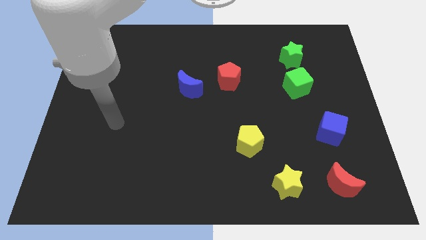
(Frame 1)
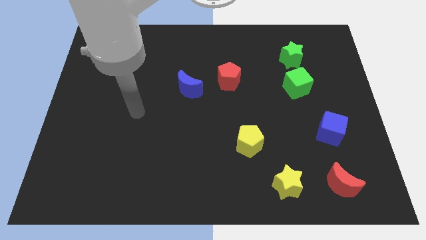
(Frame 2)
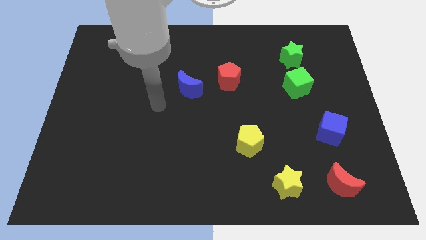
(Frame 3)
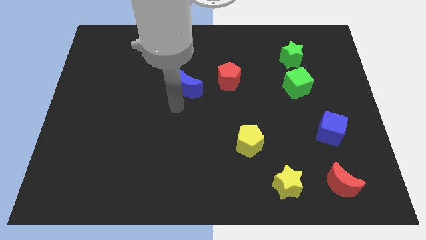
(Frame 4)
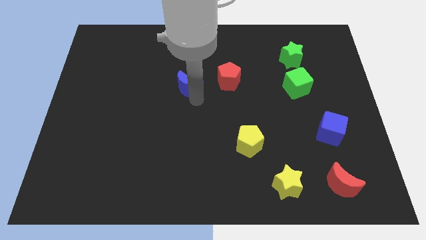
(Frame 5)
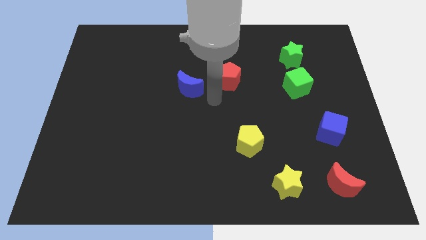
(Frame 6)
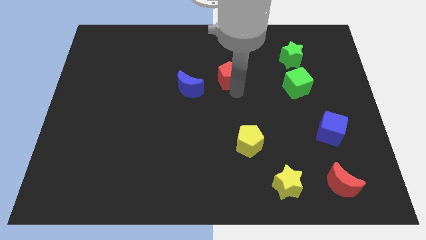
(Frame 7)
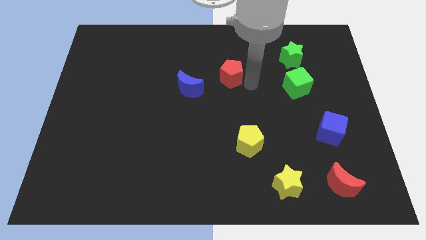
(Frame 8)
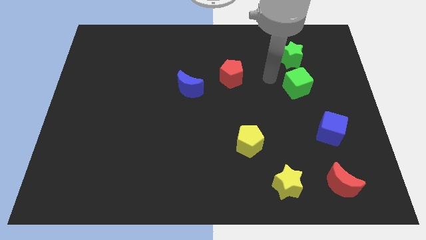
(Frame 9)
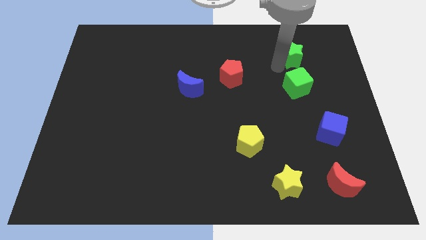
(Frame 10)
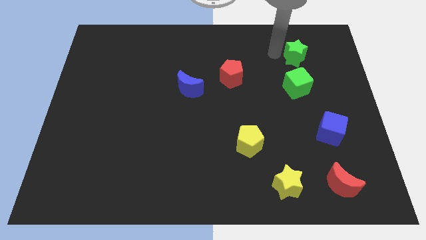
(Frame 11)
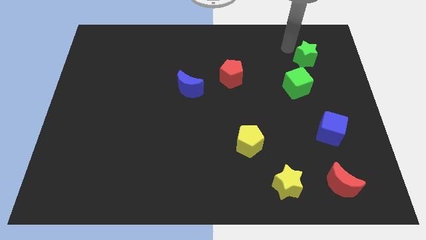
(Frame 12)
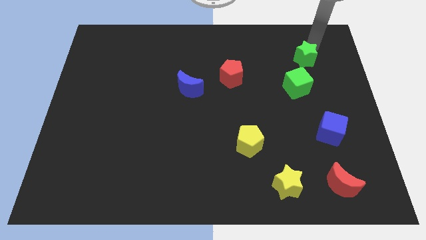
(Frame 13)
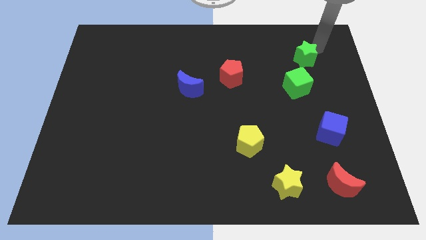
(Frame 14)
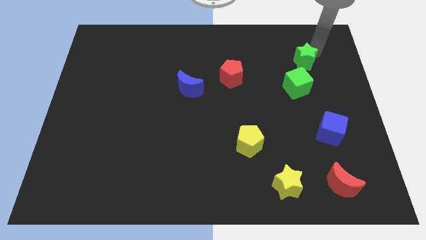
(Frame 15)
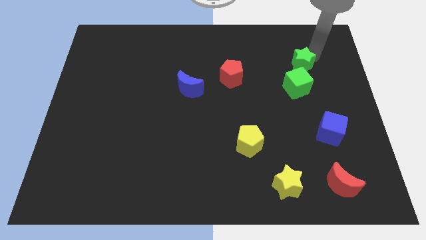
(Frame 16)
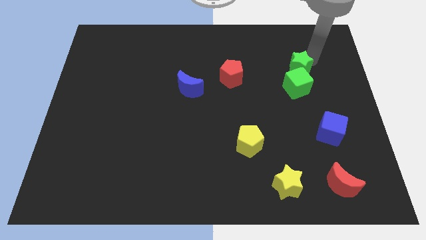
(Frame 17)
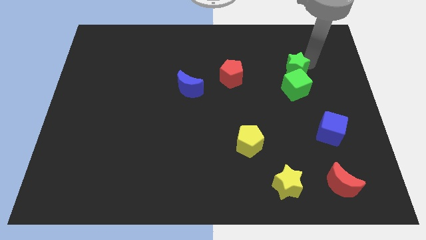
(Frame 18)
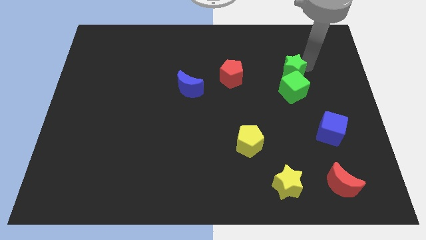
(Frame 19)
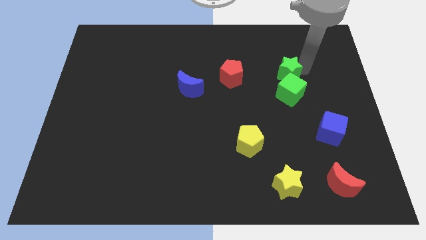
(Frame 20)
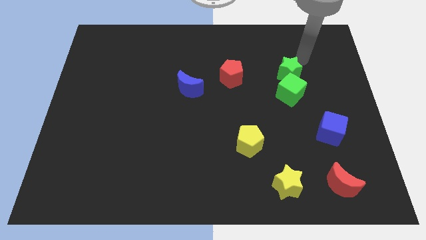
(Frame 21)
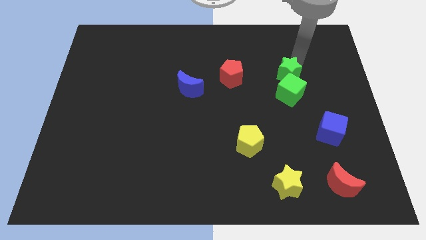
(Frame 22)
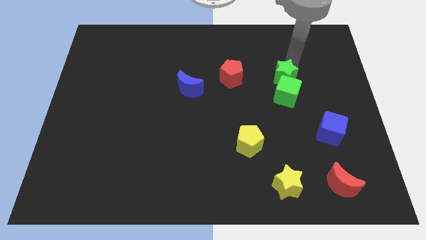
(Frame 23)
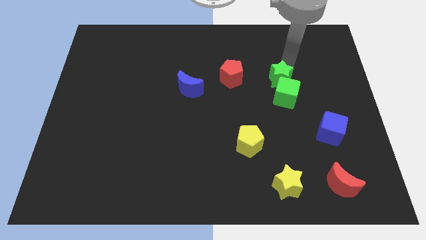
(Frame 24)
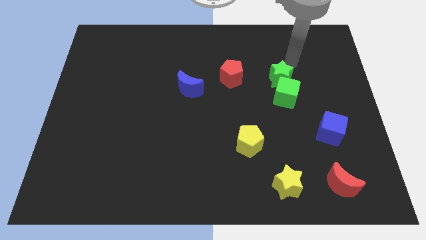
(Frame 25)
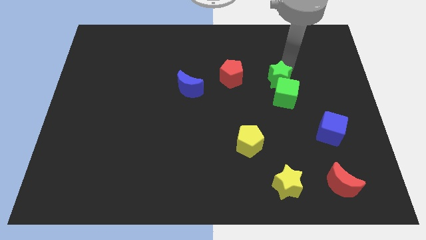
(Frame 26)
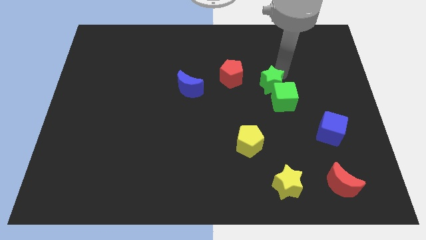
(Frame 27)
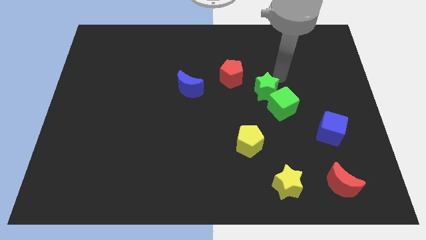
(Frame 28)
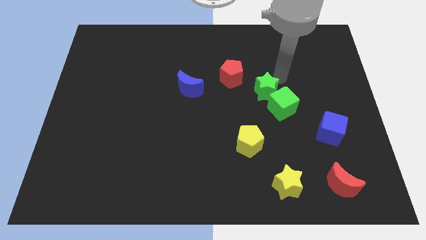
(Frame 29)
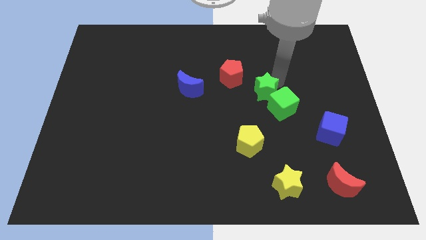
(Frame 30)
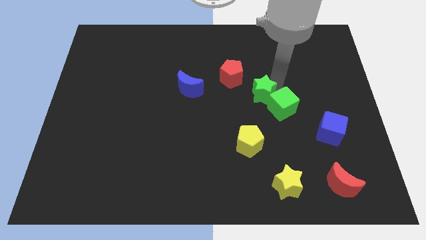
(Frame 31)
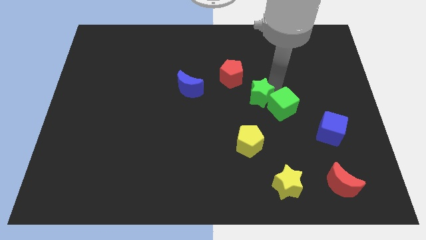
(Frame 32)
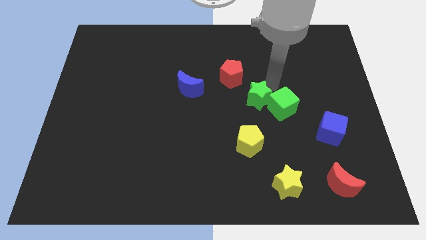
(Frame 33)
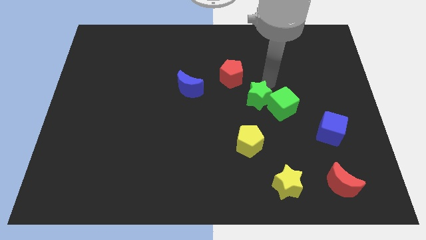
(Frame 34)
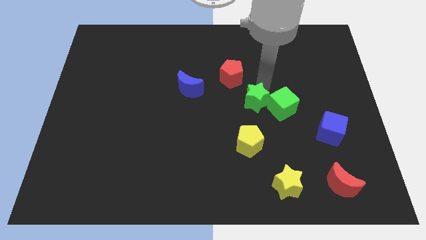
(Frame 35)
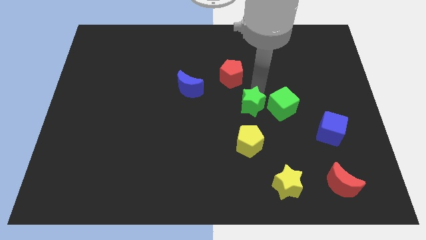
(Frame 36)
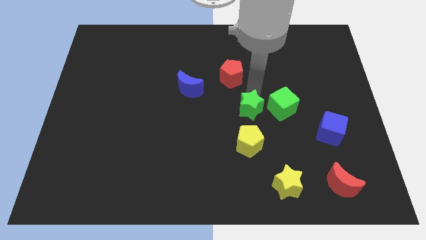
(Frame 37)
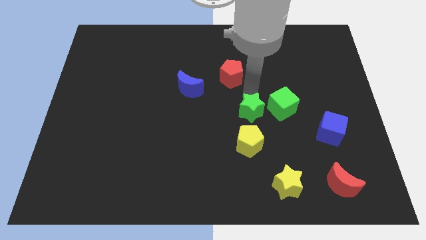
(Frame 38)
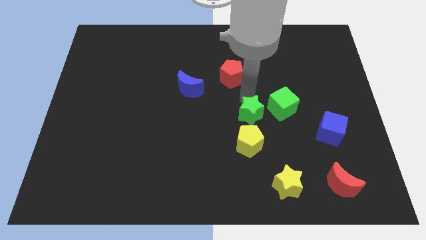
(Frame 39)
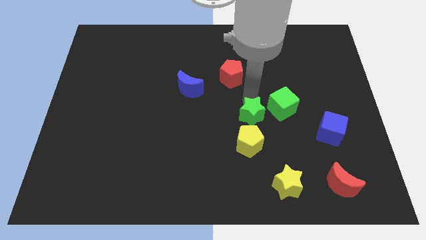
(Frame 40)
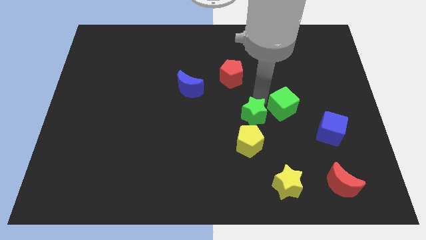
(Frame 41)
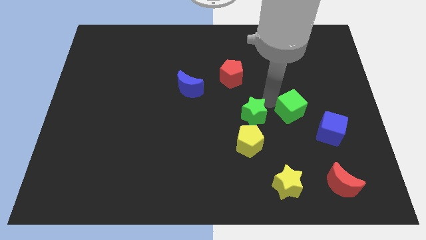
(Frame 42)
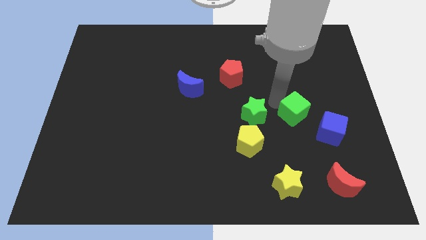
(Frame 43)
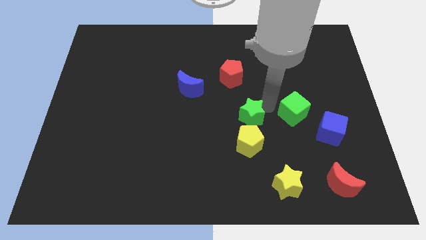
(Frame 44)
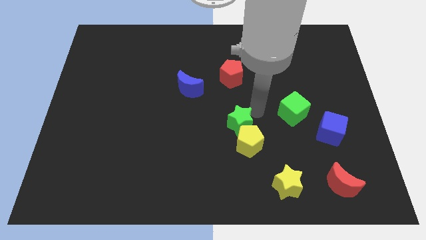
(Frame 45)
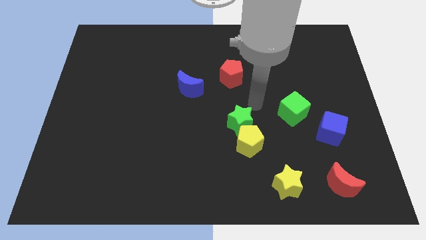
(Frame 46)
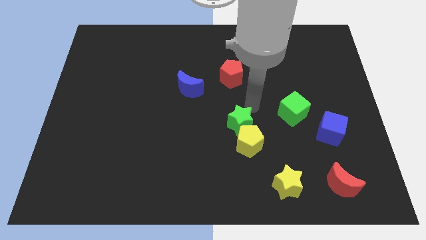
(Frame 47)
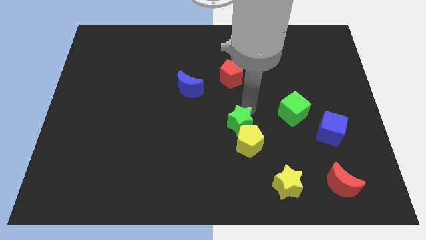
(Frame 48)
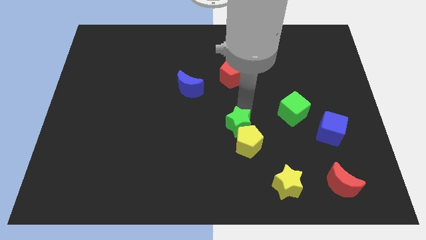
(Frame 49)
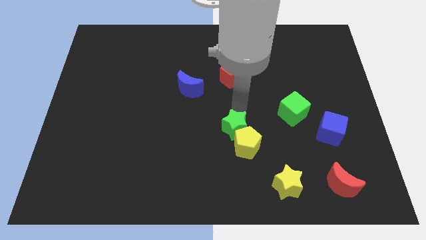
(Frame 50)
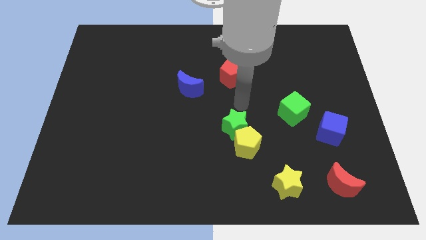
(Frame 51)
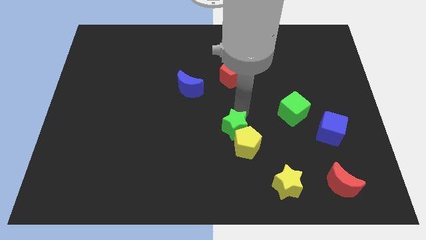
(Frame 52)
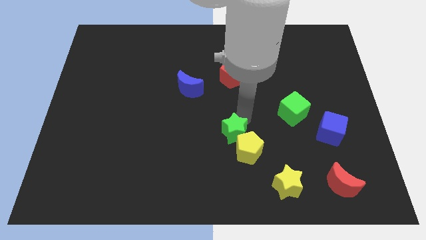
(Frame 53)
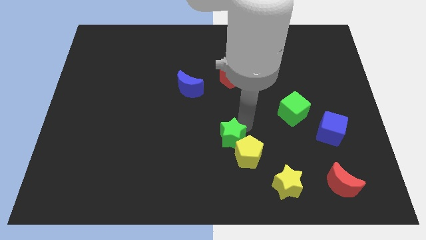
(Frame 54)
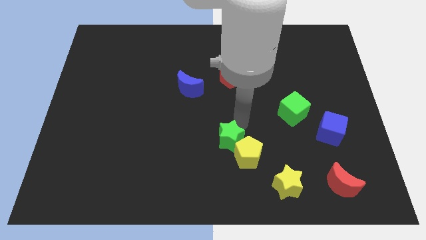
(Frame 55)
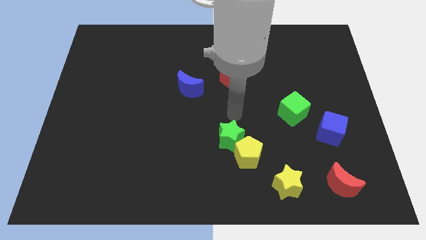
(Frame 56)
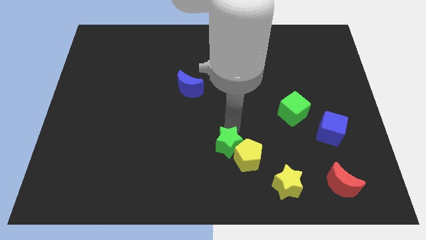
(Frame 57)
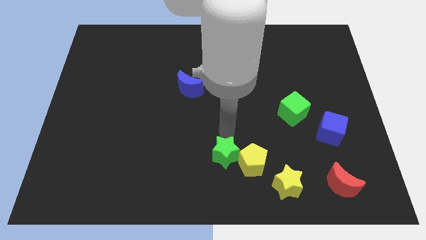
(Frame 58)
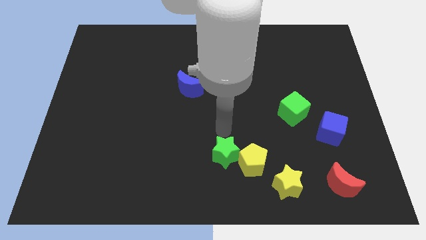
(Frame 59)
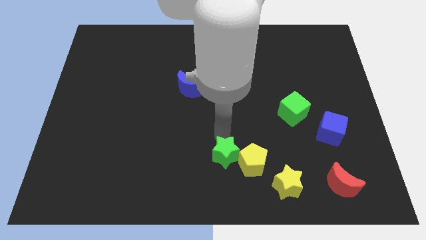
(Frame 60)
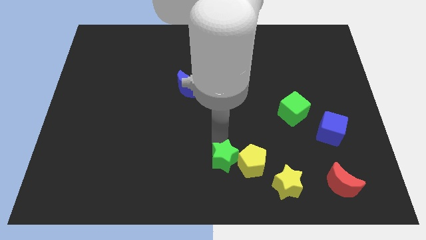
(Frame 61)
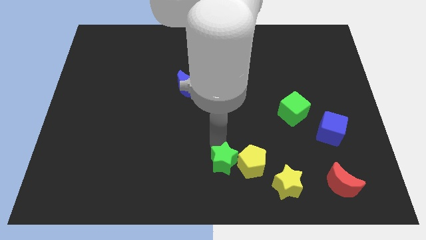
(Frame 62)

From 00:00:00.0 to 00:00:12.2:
move the green star diagonally down and to the left of the yellow pentagon

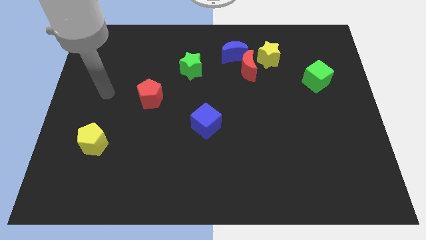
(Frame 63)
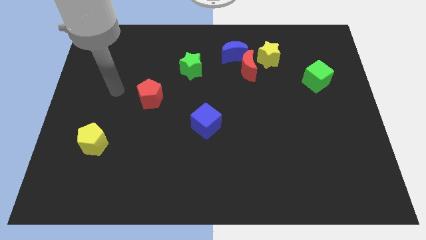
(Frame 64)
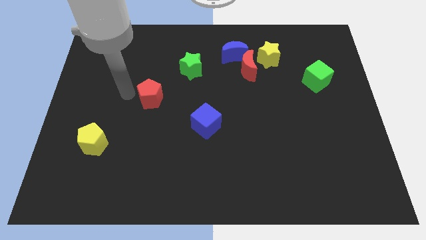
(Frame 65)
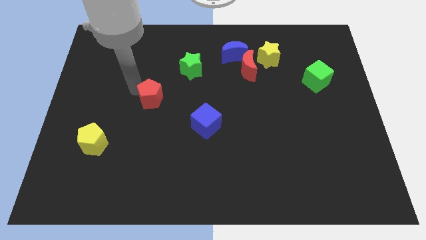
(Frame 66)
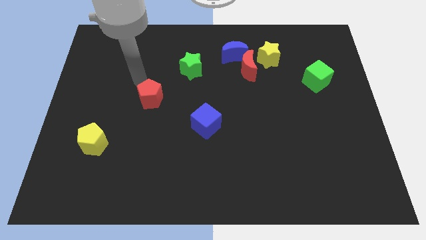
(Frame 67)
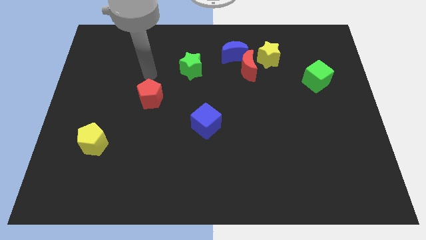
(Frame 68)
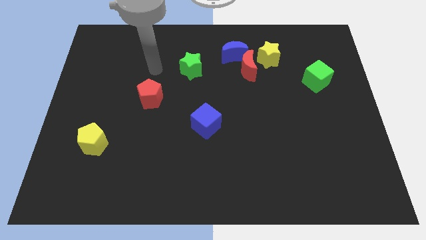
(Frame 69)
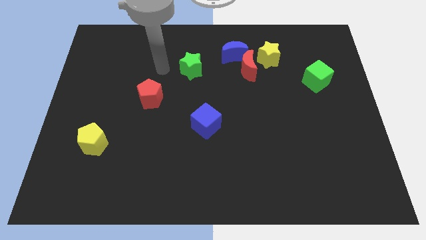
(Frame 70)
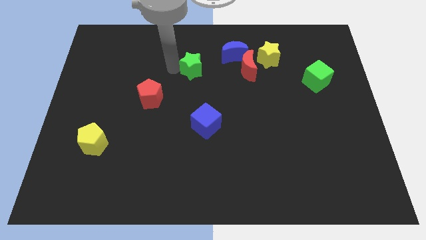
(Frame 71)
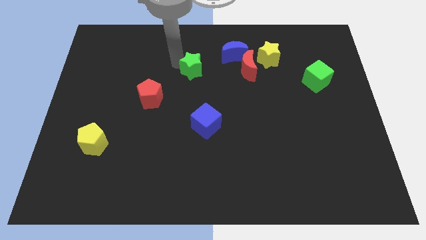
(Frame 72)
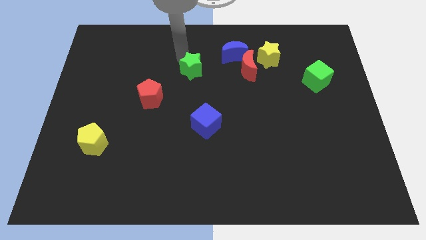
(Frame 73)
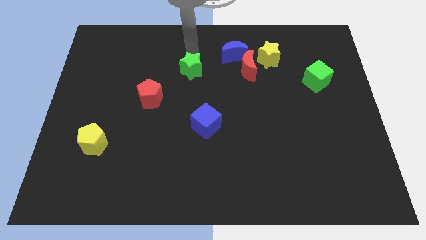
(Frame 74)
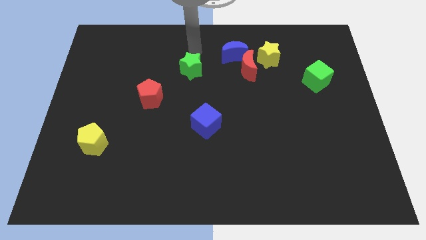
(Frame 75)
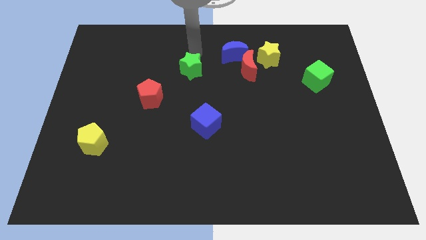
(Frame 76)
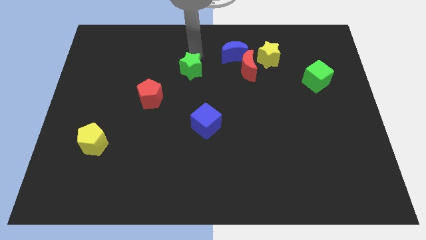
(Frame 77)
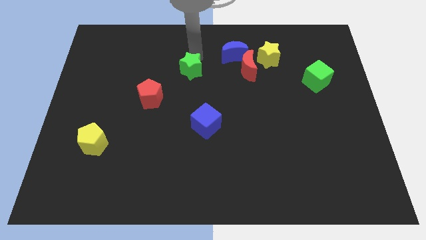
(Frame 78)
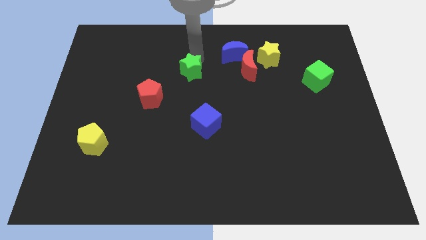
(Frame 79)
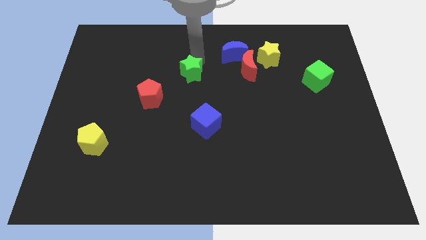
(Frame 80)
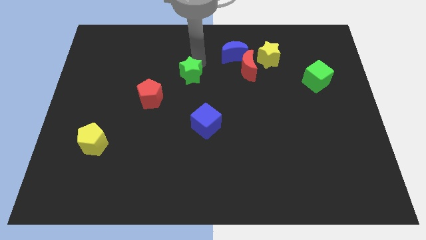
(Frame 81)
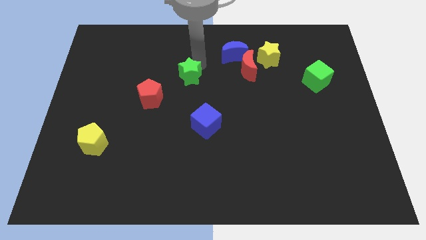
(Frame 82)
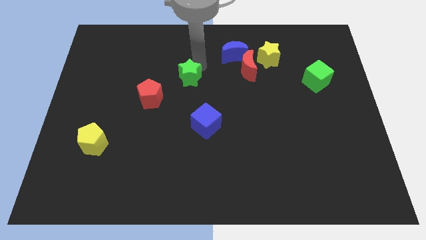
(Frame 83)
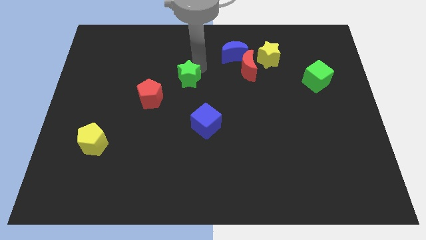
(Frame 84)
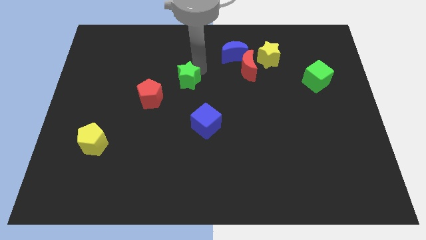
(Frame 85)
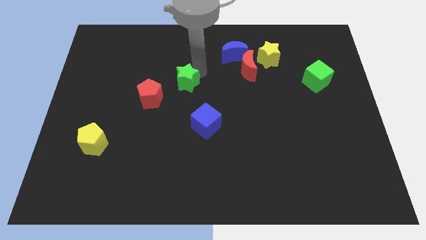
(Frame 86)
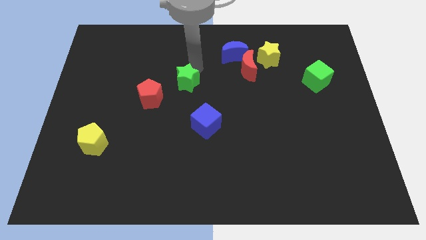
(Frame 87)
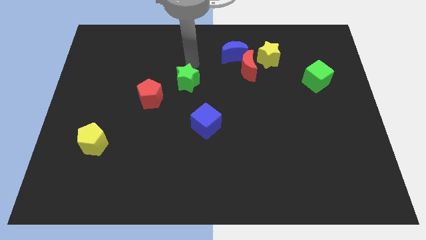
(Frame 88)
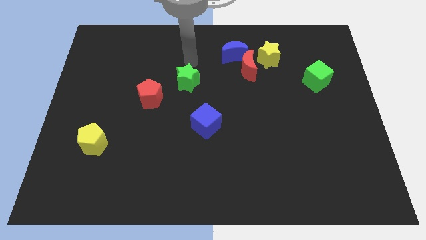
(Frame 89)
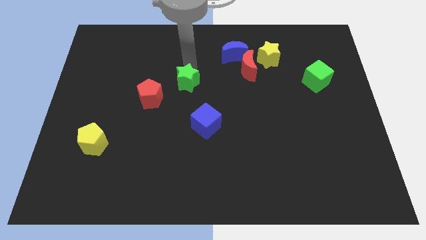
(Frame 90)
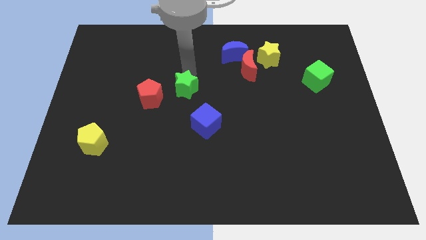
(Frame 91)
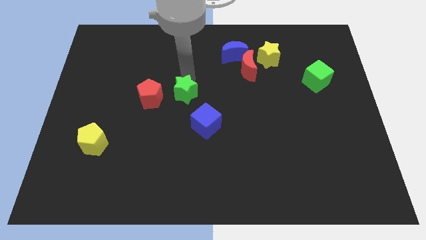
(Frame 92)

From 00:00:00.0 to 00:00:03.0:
put the green star to the top left of the blue cube
